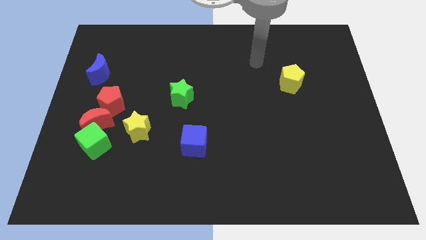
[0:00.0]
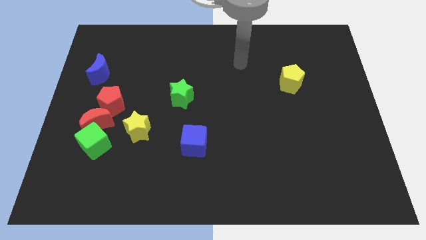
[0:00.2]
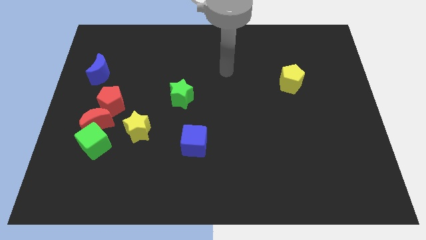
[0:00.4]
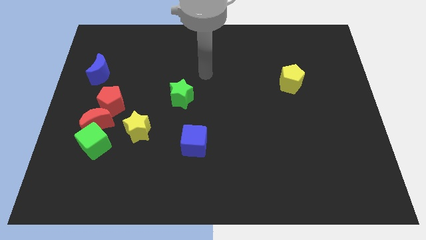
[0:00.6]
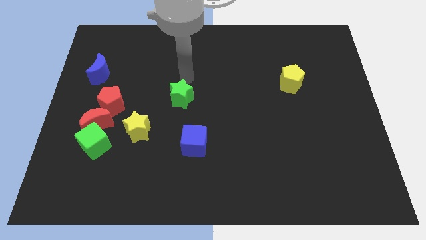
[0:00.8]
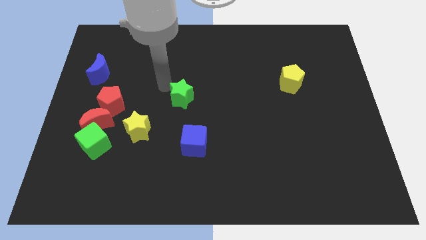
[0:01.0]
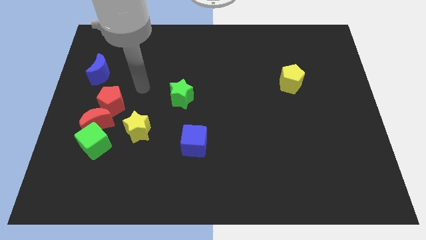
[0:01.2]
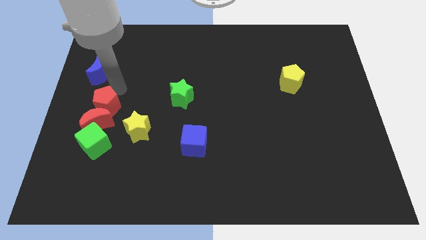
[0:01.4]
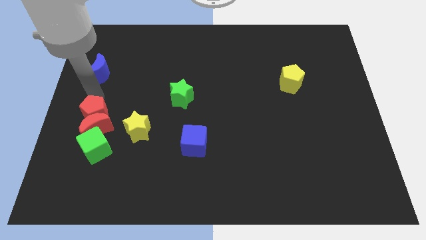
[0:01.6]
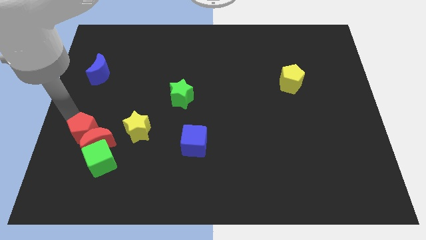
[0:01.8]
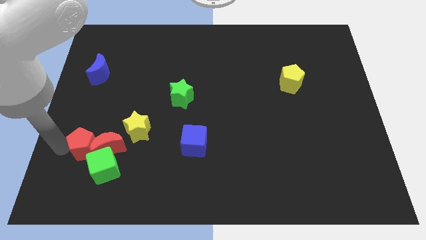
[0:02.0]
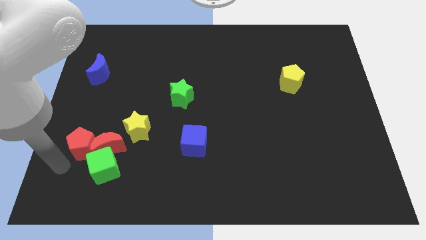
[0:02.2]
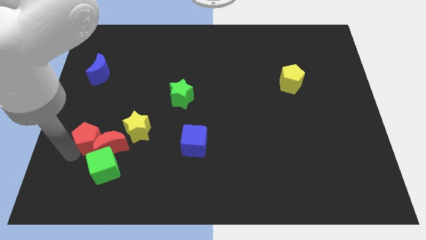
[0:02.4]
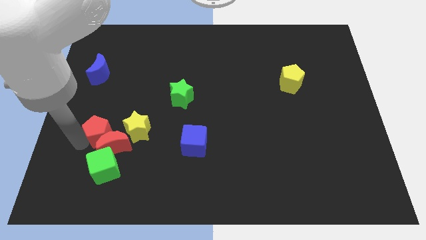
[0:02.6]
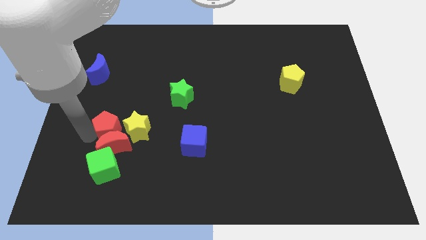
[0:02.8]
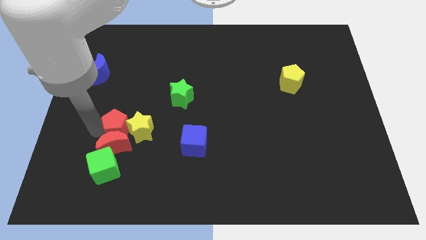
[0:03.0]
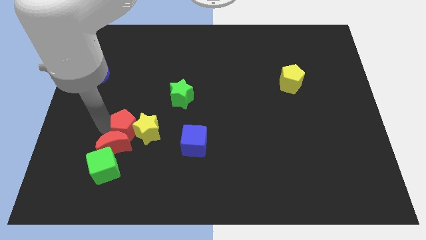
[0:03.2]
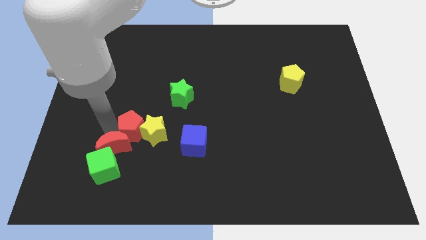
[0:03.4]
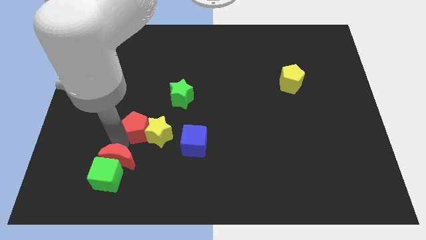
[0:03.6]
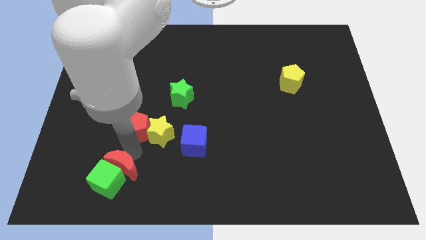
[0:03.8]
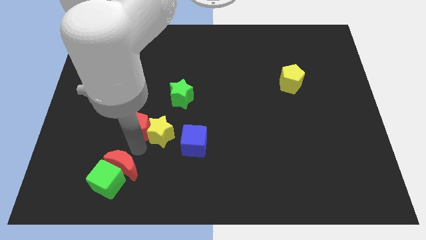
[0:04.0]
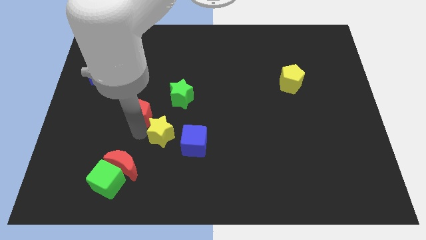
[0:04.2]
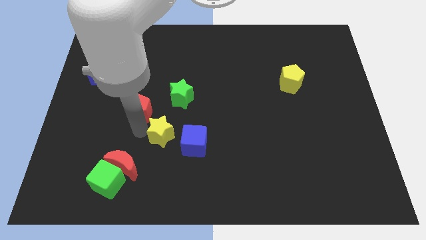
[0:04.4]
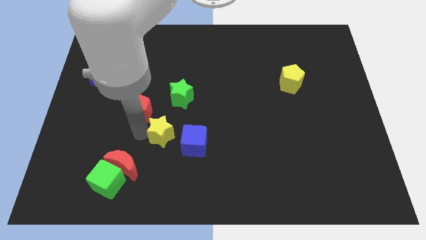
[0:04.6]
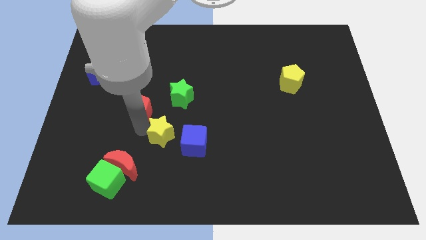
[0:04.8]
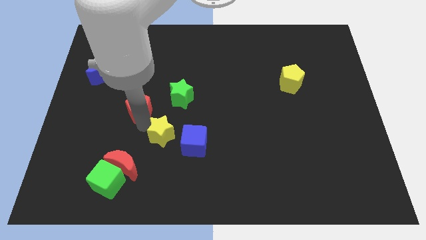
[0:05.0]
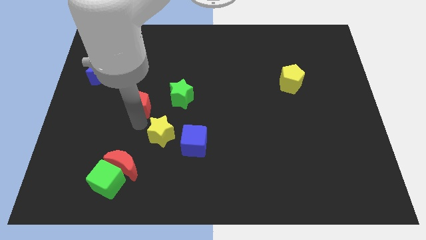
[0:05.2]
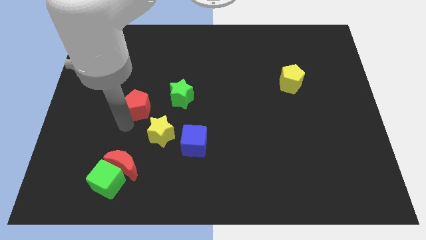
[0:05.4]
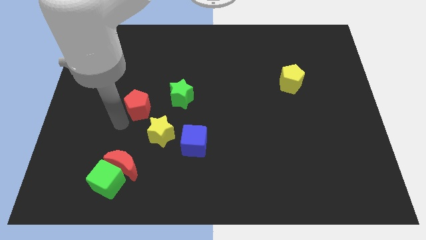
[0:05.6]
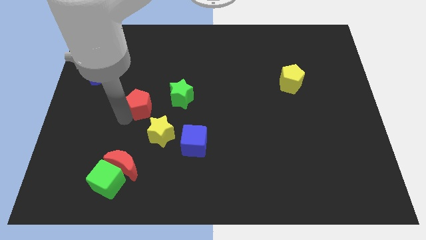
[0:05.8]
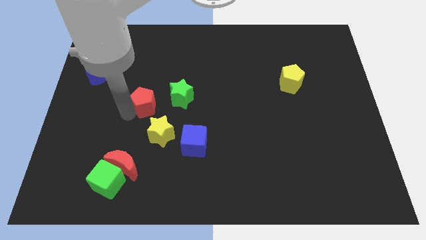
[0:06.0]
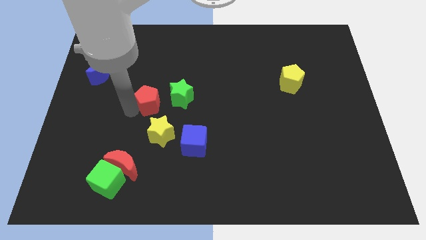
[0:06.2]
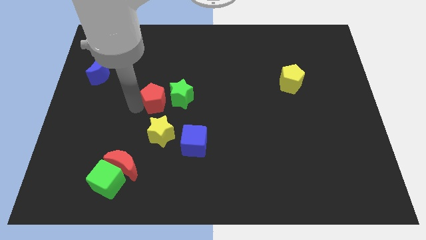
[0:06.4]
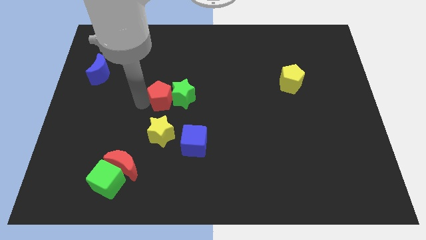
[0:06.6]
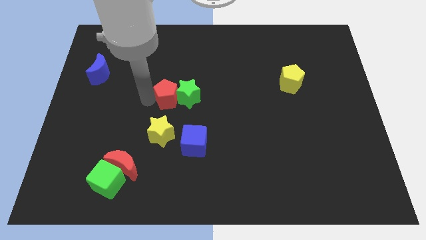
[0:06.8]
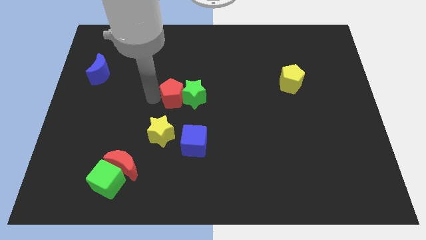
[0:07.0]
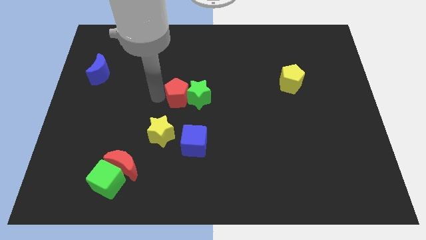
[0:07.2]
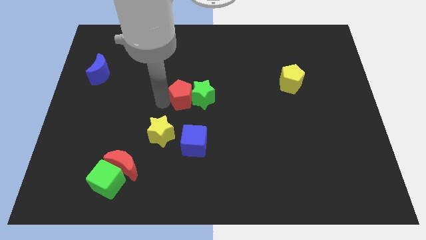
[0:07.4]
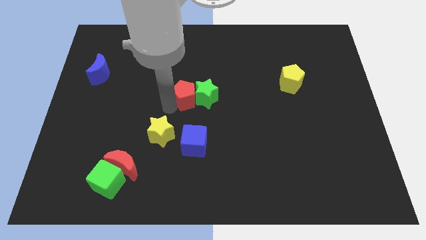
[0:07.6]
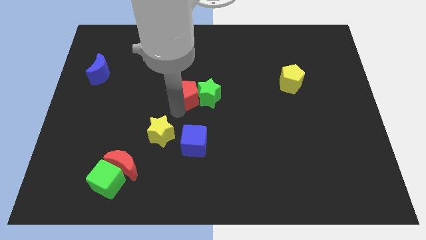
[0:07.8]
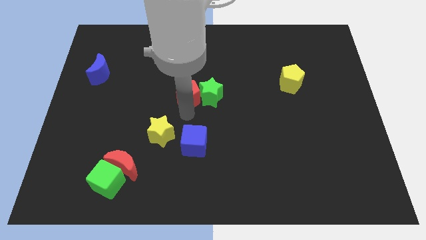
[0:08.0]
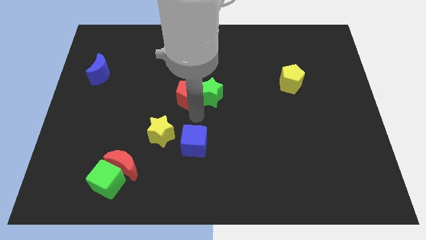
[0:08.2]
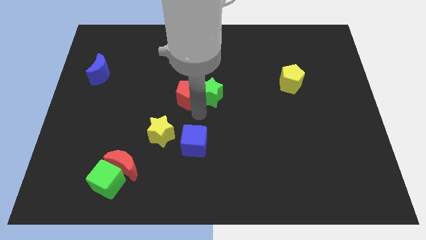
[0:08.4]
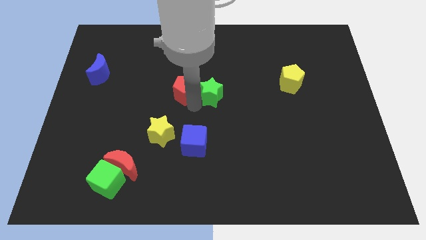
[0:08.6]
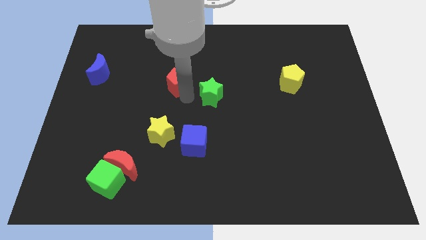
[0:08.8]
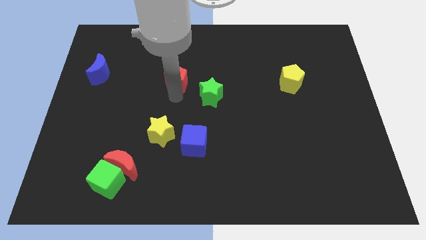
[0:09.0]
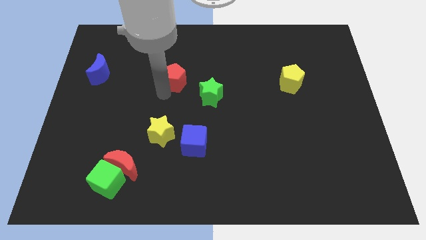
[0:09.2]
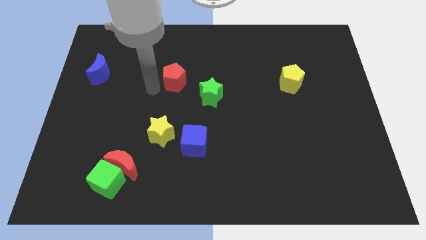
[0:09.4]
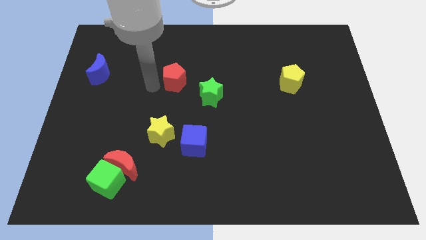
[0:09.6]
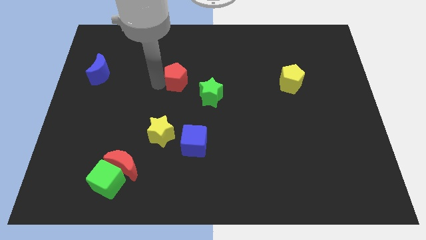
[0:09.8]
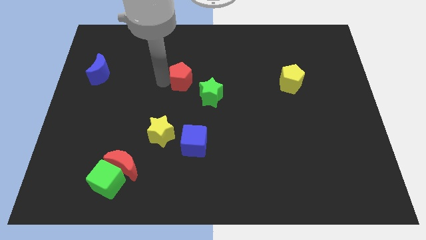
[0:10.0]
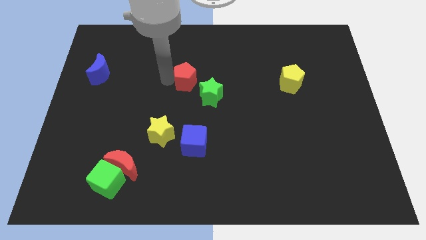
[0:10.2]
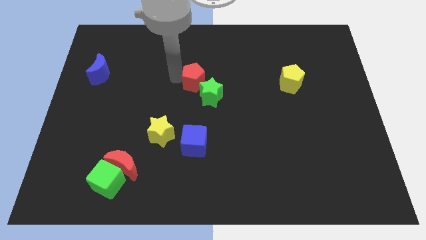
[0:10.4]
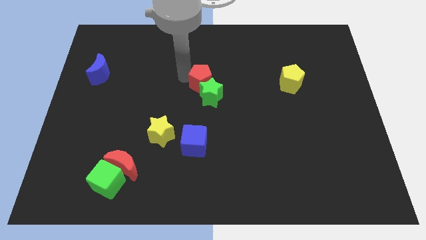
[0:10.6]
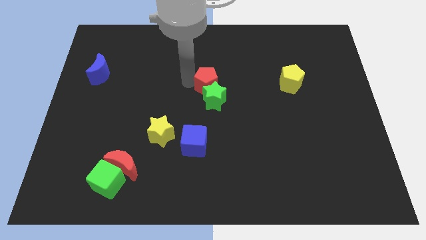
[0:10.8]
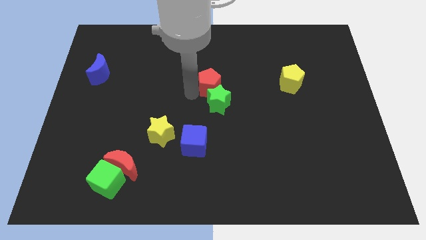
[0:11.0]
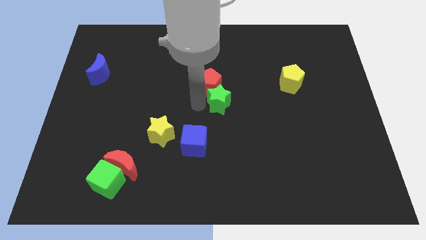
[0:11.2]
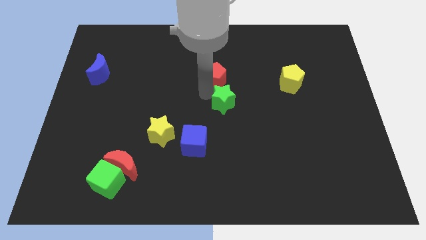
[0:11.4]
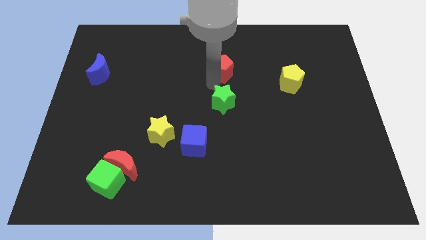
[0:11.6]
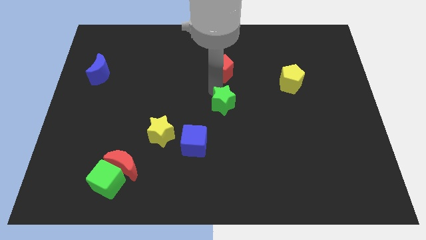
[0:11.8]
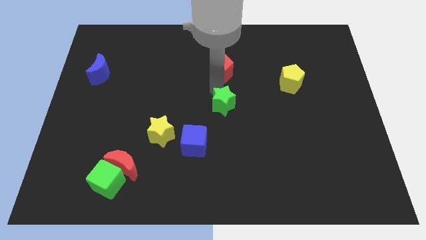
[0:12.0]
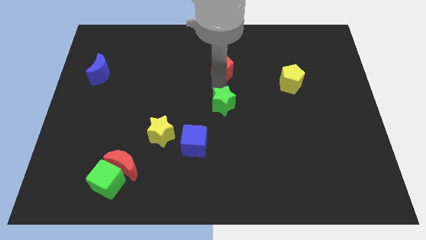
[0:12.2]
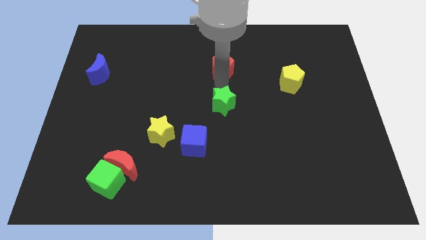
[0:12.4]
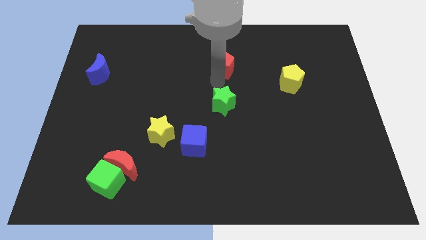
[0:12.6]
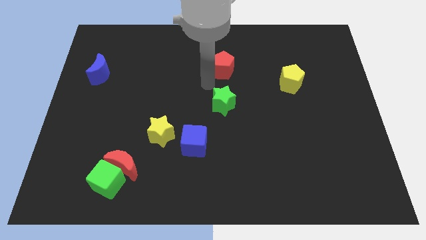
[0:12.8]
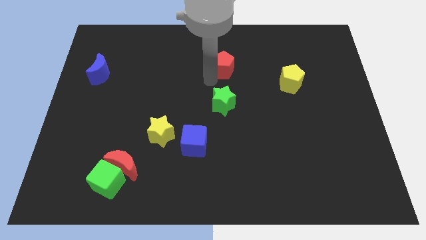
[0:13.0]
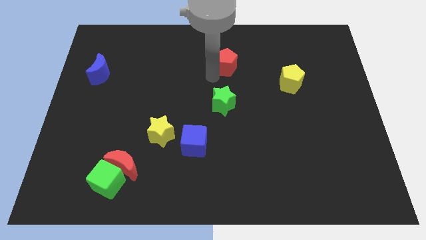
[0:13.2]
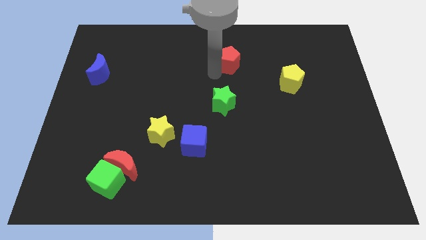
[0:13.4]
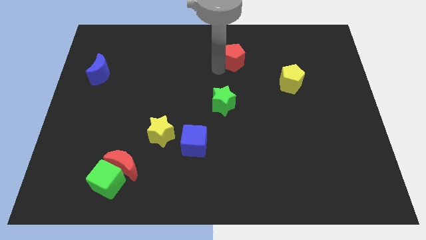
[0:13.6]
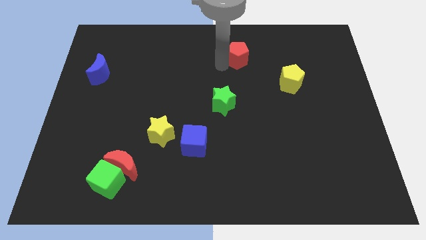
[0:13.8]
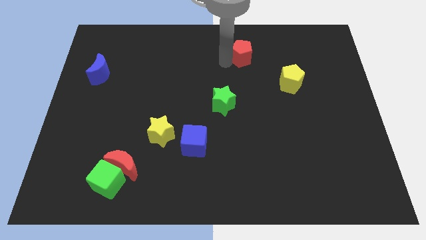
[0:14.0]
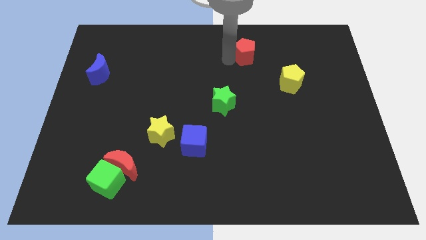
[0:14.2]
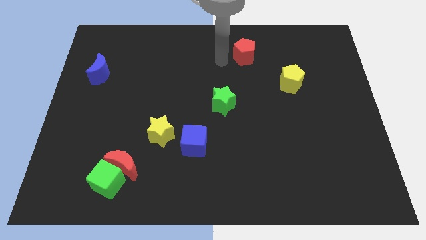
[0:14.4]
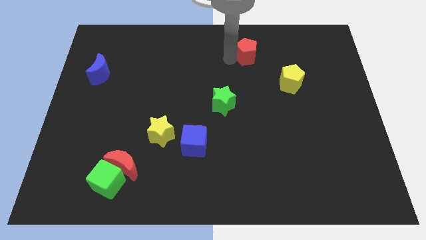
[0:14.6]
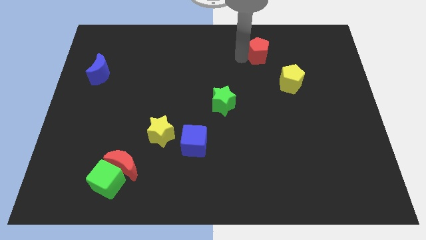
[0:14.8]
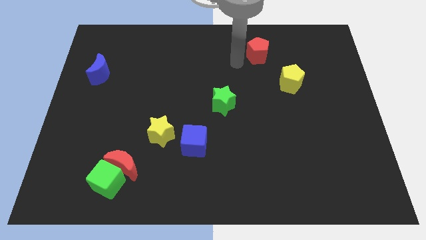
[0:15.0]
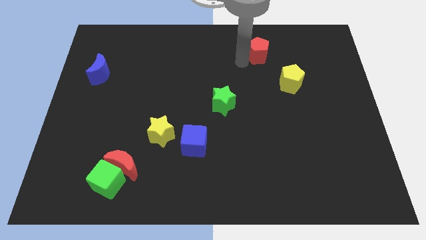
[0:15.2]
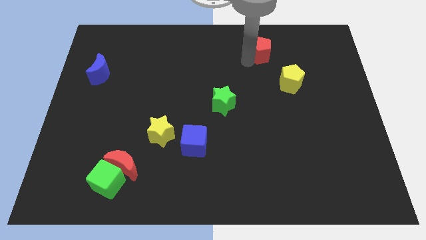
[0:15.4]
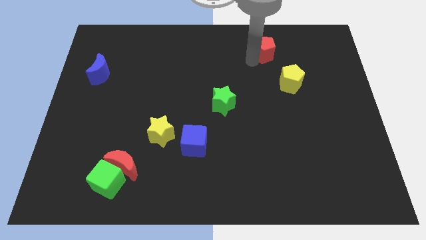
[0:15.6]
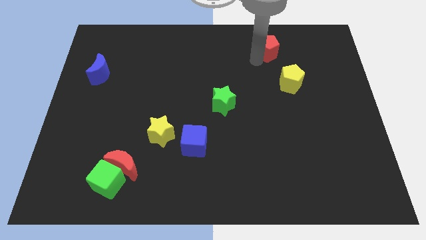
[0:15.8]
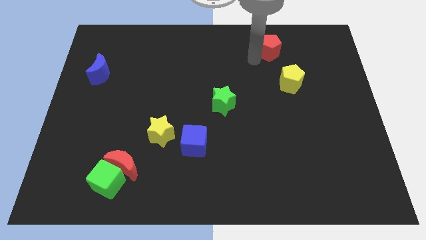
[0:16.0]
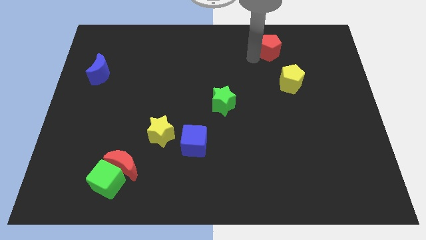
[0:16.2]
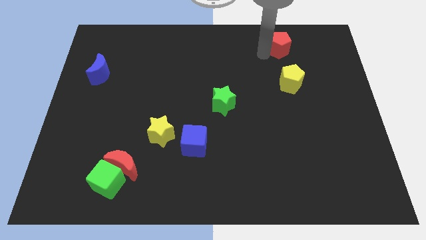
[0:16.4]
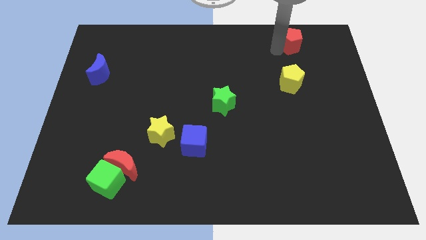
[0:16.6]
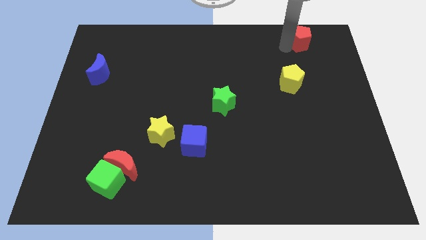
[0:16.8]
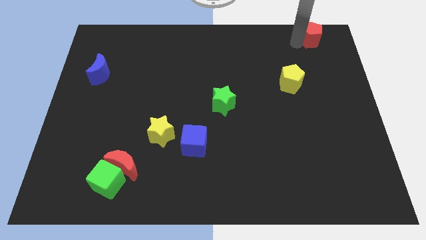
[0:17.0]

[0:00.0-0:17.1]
move the red pentagon to the top right of the board
